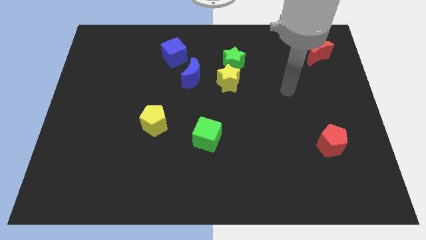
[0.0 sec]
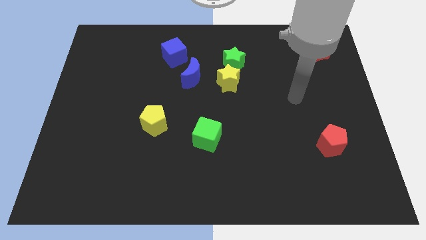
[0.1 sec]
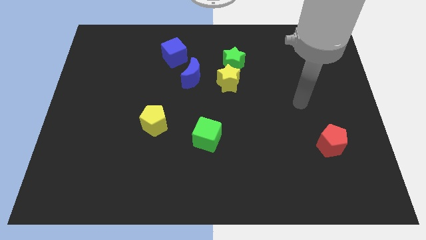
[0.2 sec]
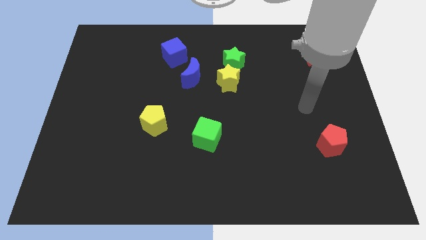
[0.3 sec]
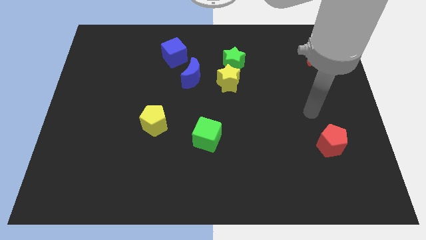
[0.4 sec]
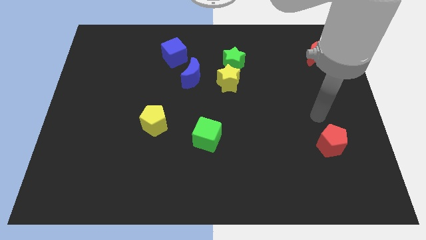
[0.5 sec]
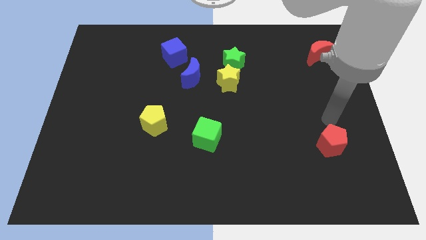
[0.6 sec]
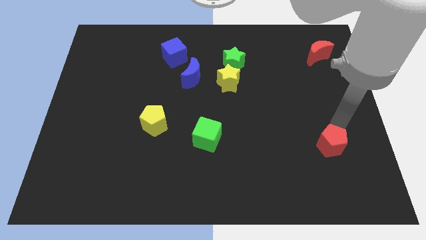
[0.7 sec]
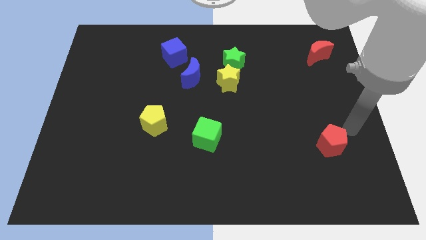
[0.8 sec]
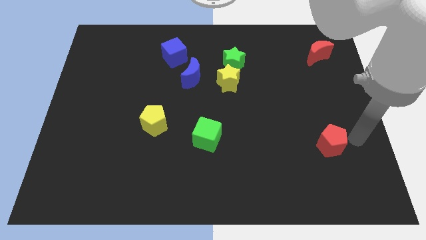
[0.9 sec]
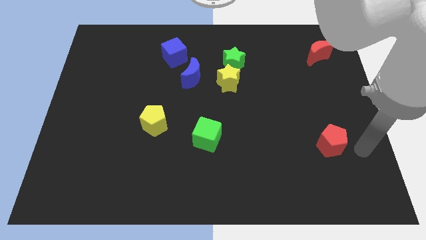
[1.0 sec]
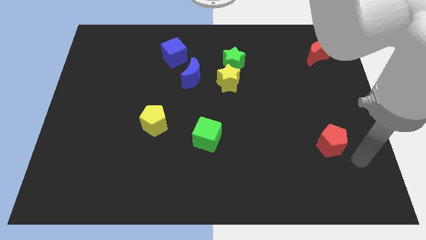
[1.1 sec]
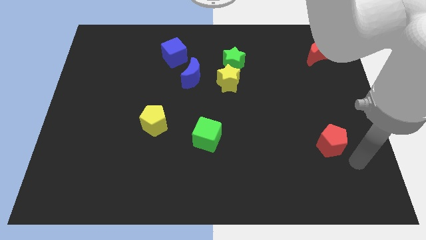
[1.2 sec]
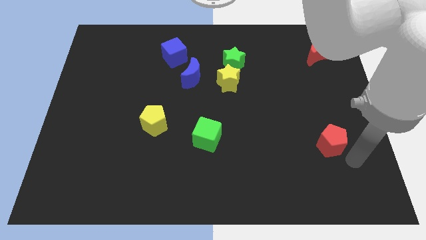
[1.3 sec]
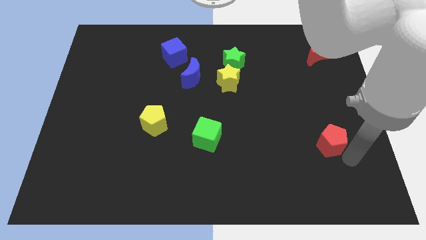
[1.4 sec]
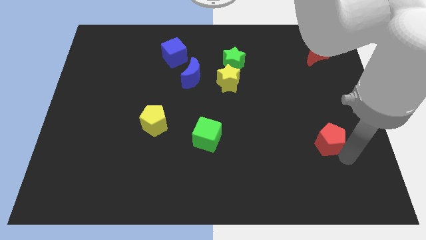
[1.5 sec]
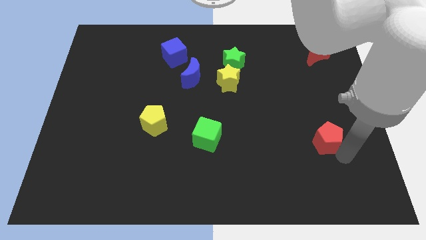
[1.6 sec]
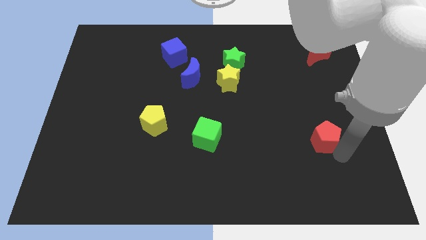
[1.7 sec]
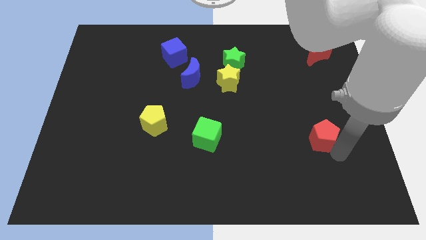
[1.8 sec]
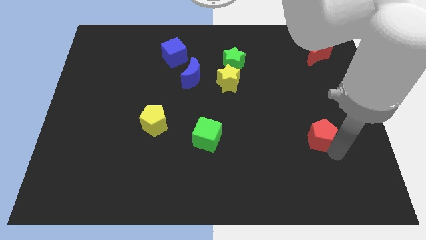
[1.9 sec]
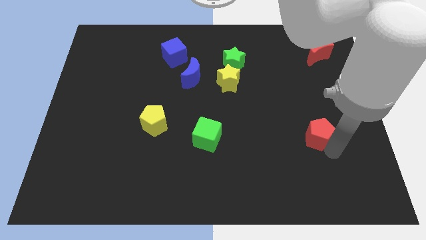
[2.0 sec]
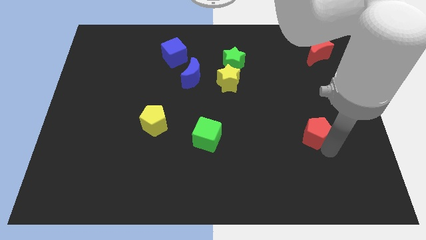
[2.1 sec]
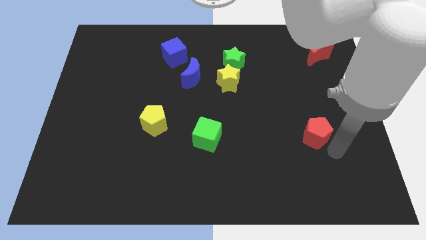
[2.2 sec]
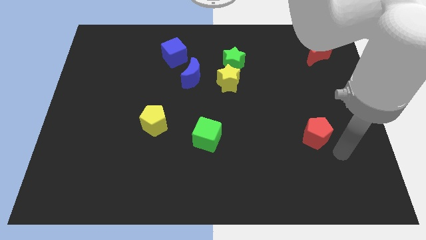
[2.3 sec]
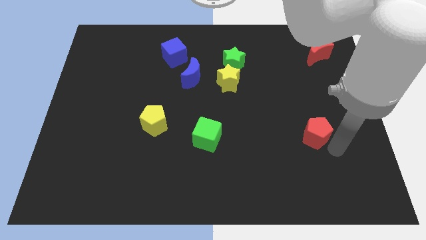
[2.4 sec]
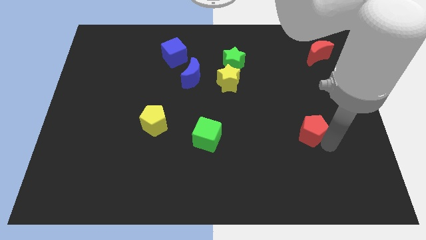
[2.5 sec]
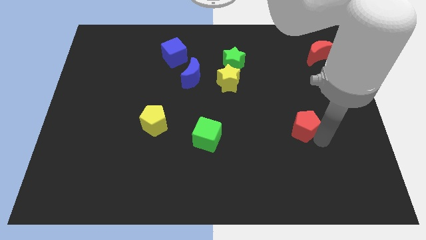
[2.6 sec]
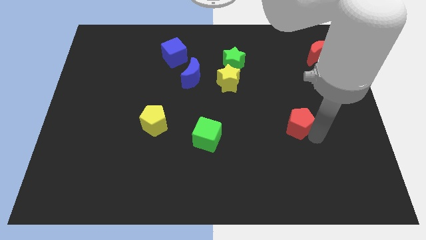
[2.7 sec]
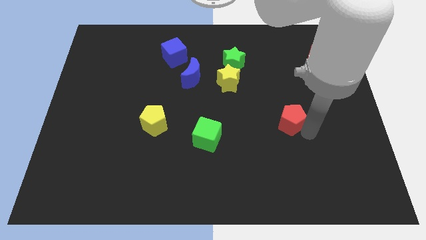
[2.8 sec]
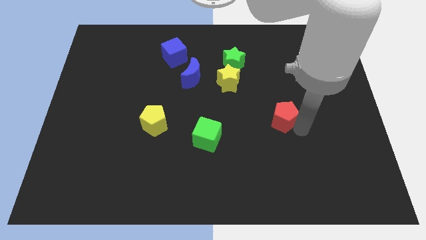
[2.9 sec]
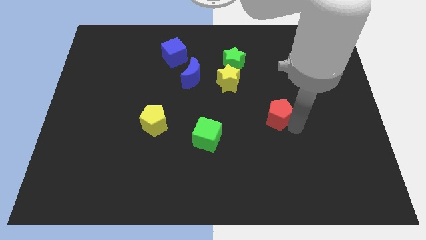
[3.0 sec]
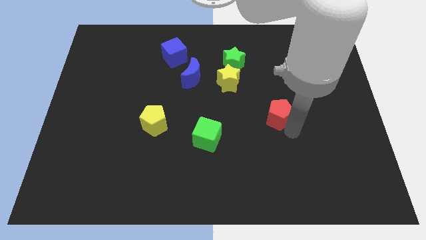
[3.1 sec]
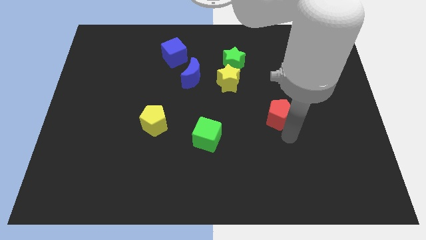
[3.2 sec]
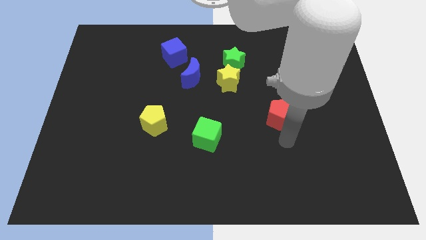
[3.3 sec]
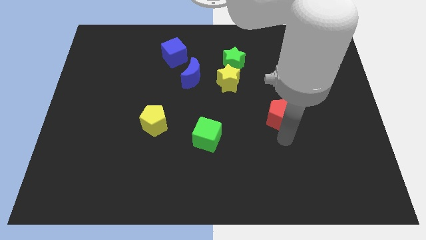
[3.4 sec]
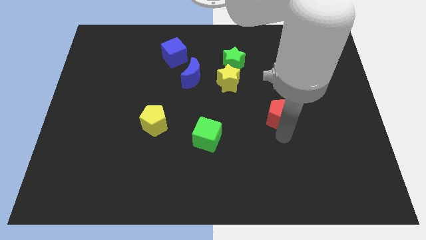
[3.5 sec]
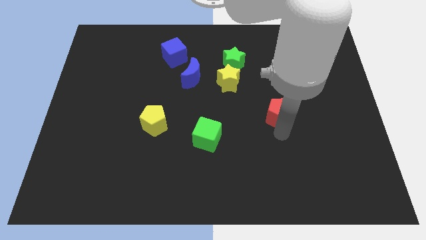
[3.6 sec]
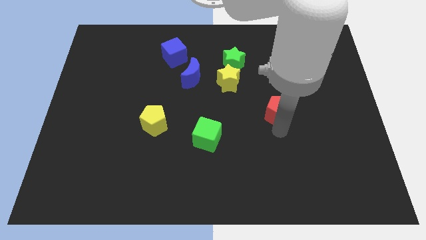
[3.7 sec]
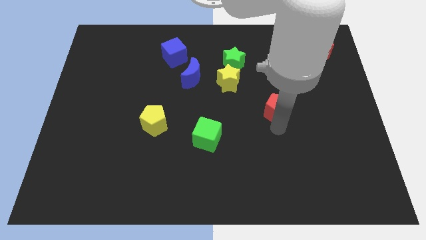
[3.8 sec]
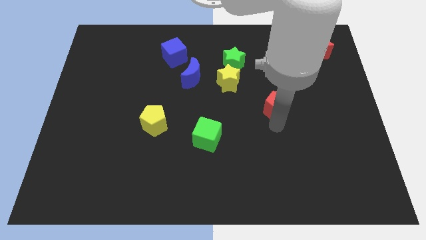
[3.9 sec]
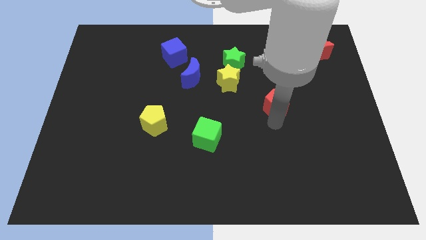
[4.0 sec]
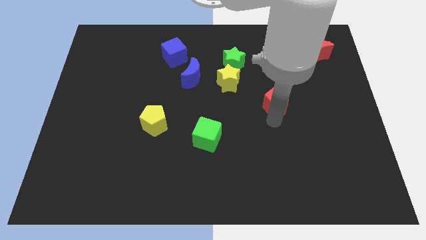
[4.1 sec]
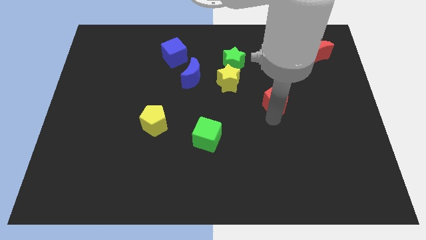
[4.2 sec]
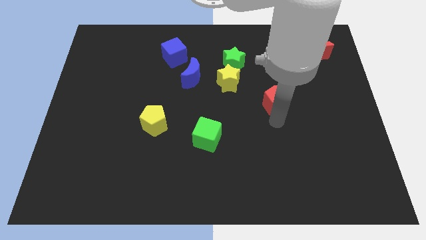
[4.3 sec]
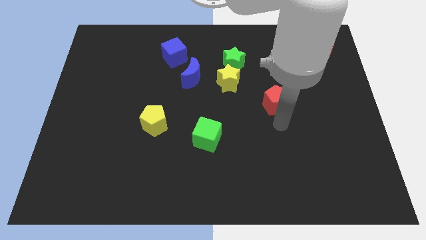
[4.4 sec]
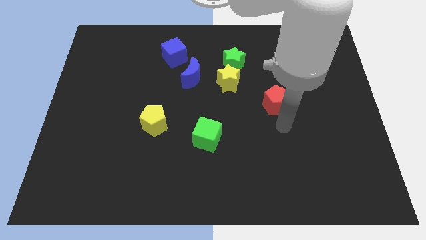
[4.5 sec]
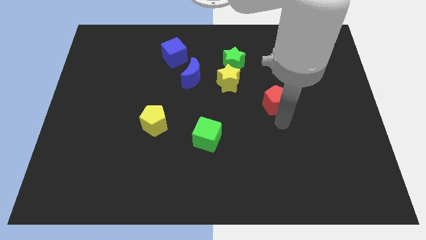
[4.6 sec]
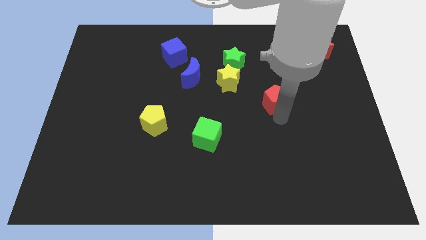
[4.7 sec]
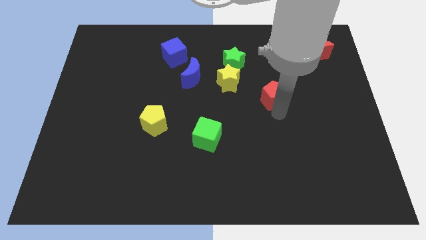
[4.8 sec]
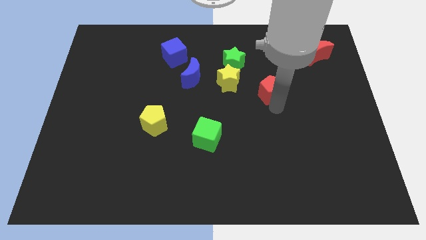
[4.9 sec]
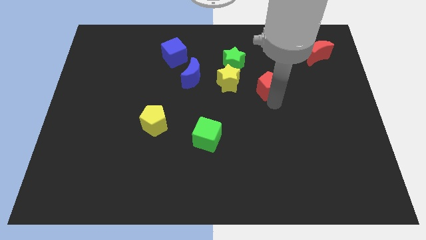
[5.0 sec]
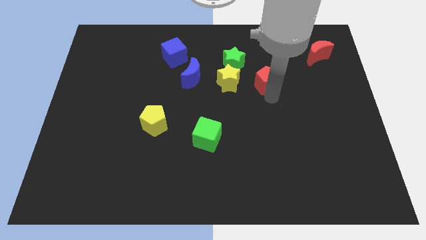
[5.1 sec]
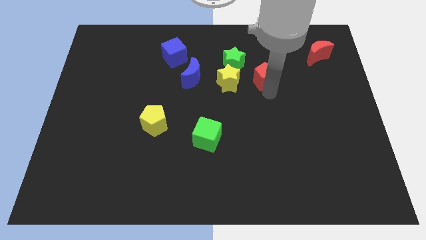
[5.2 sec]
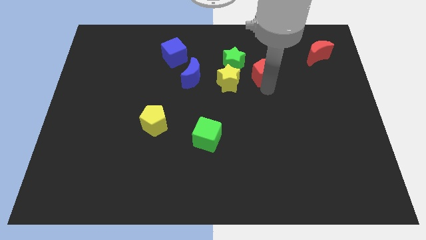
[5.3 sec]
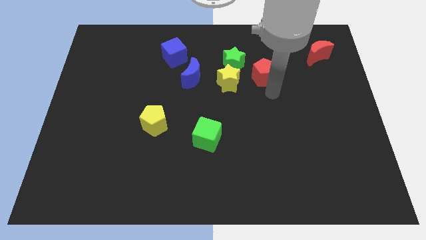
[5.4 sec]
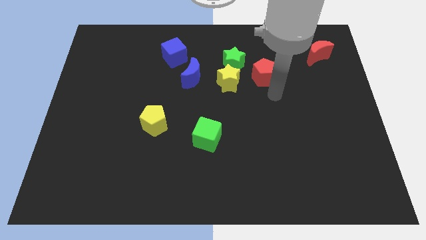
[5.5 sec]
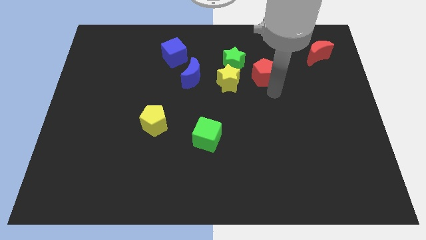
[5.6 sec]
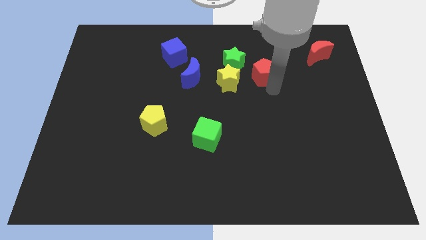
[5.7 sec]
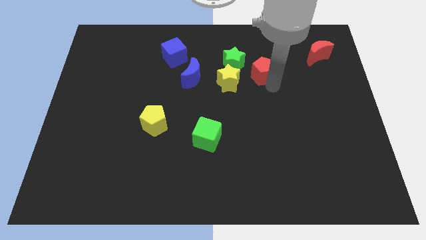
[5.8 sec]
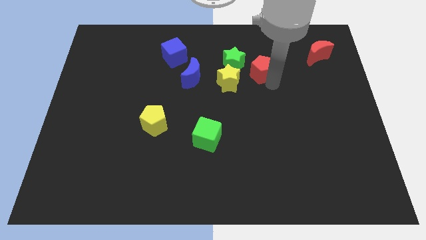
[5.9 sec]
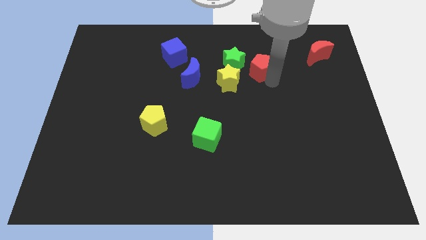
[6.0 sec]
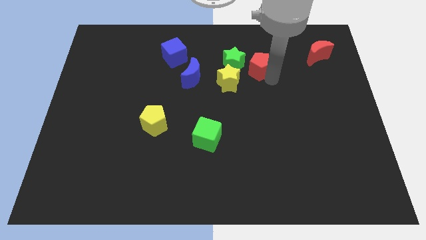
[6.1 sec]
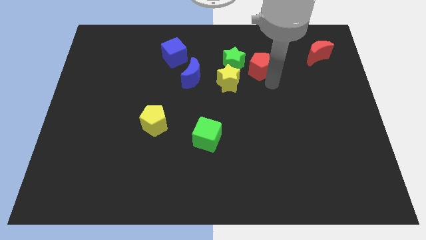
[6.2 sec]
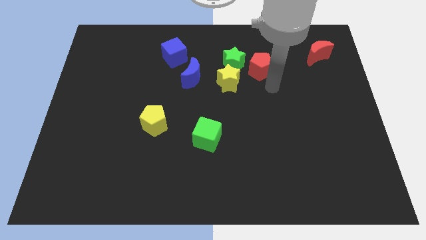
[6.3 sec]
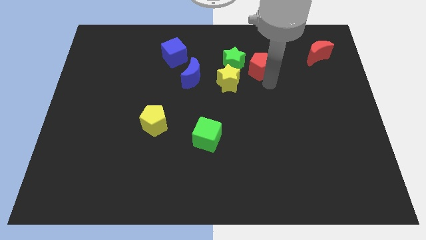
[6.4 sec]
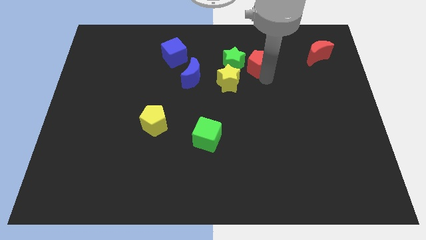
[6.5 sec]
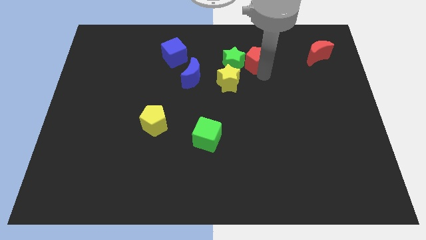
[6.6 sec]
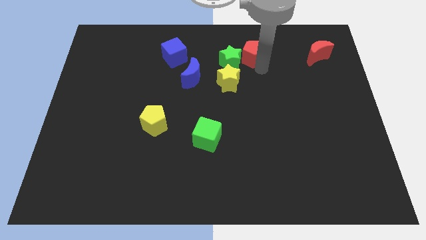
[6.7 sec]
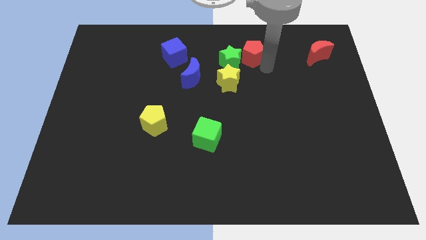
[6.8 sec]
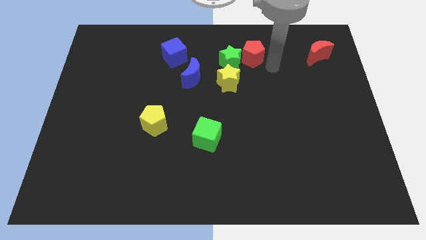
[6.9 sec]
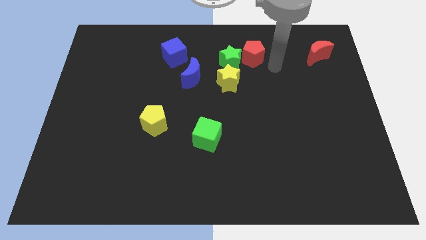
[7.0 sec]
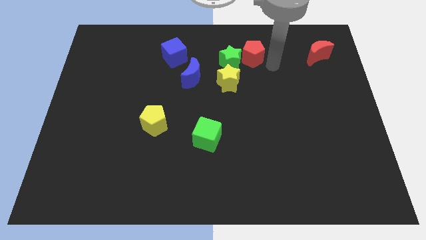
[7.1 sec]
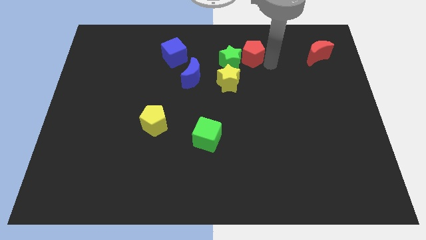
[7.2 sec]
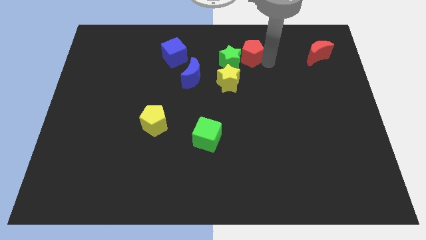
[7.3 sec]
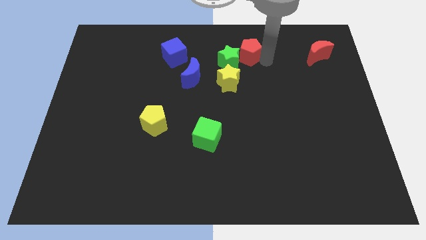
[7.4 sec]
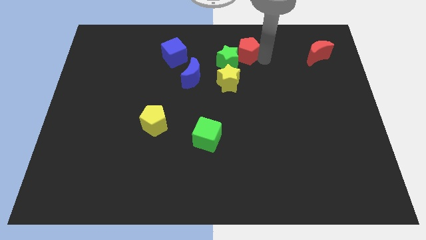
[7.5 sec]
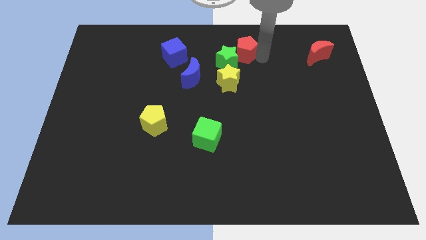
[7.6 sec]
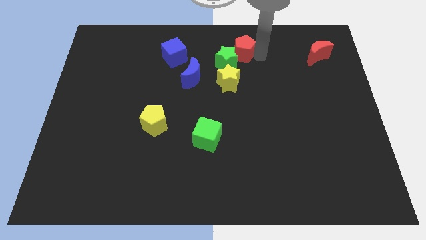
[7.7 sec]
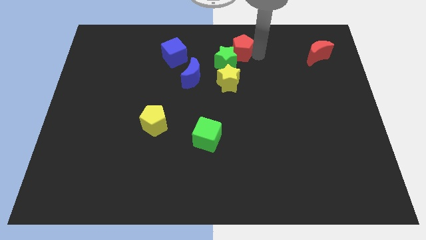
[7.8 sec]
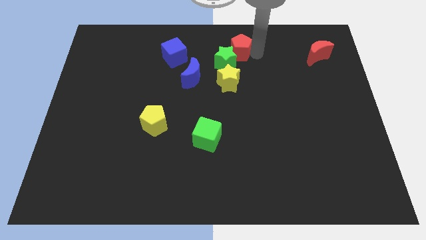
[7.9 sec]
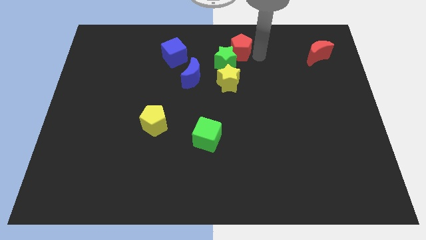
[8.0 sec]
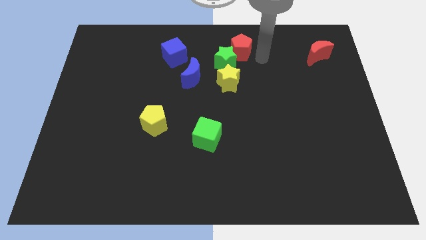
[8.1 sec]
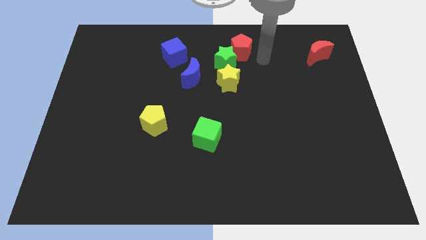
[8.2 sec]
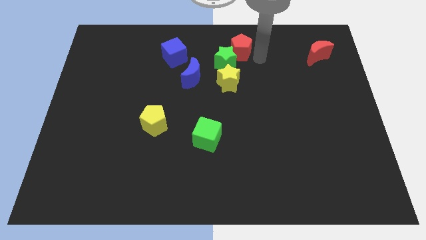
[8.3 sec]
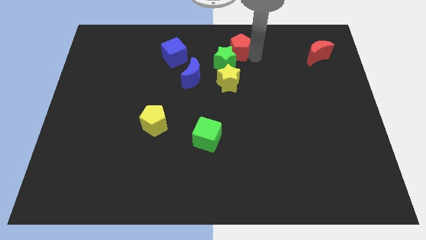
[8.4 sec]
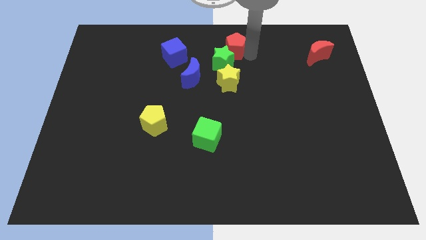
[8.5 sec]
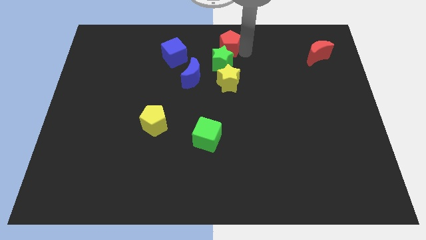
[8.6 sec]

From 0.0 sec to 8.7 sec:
push the red pentagon to the right side of the blue cube
